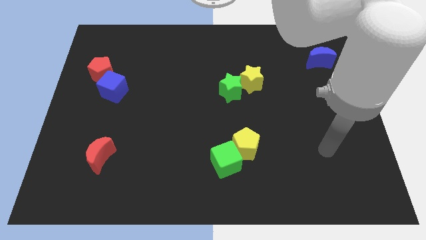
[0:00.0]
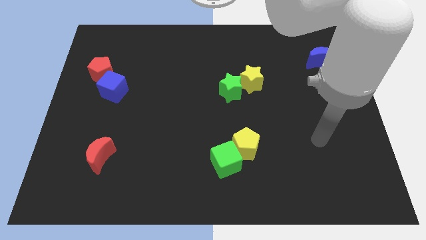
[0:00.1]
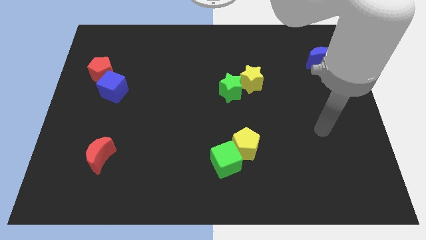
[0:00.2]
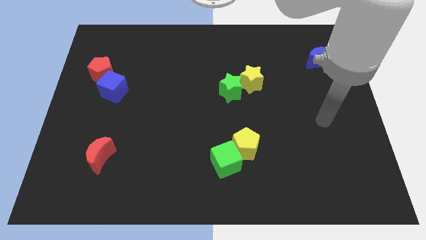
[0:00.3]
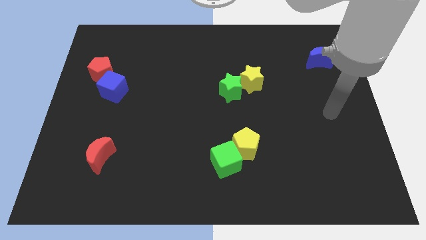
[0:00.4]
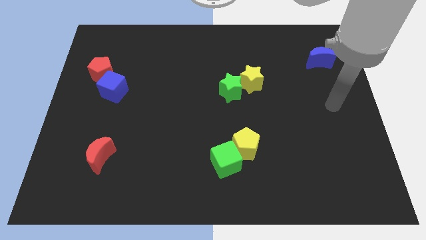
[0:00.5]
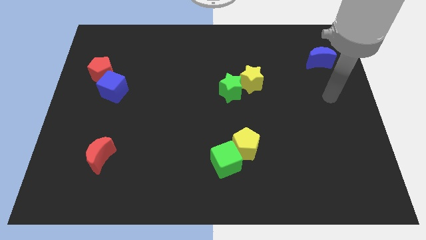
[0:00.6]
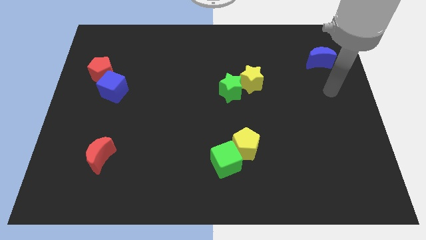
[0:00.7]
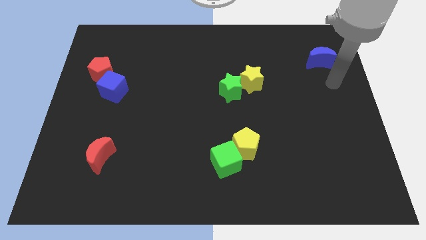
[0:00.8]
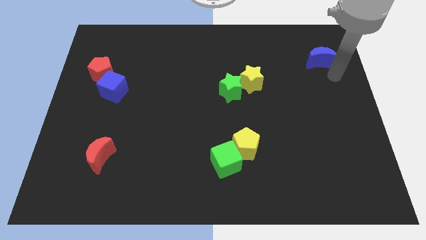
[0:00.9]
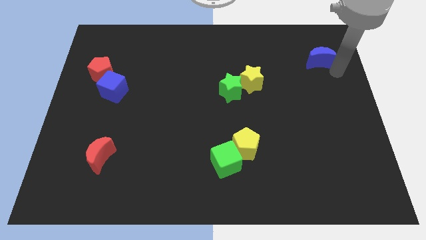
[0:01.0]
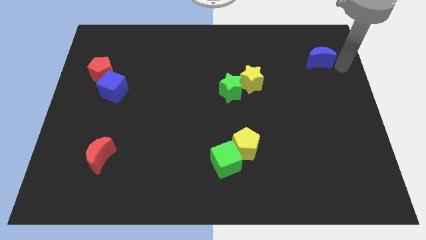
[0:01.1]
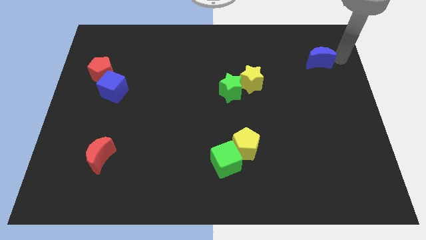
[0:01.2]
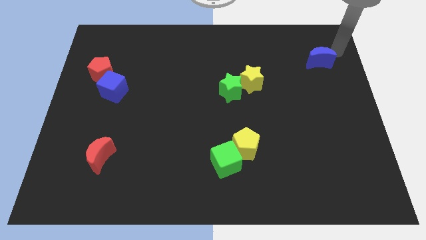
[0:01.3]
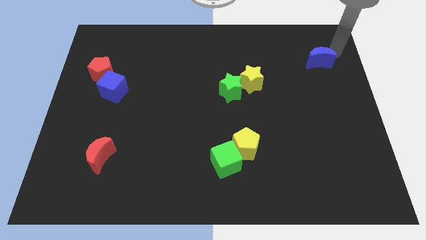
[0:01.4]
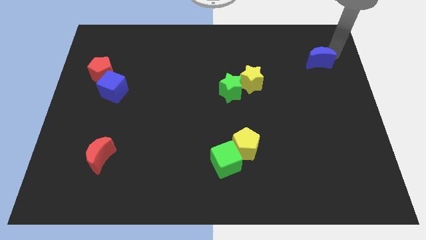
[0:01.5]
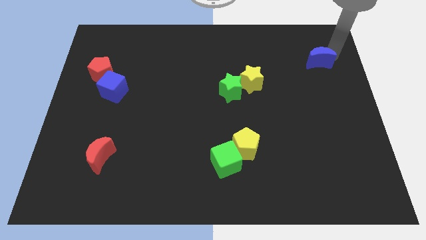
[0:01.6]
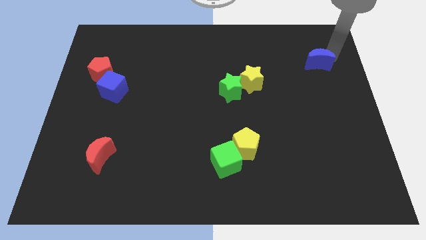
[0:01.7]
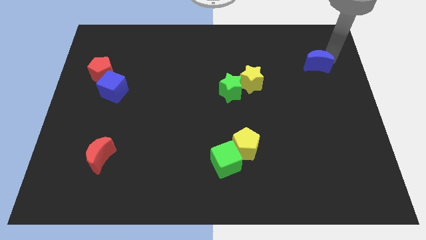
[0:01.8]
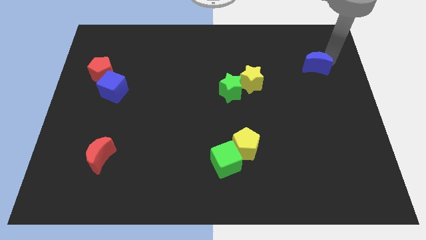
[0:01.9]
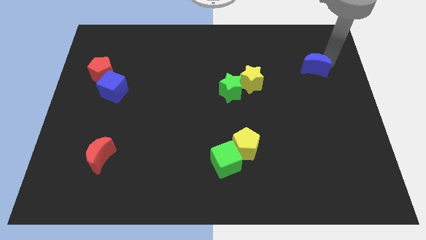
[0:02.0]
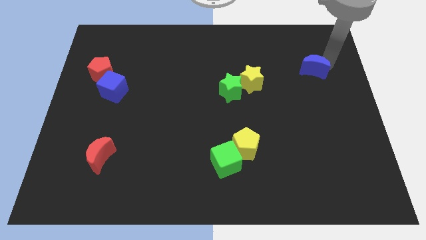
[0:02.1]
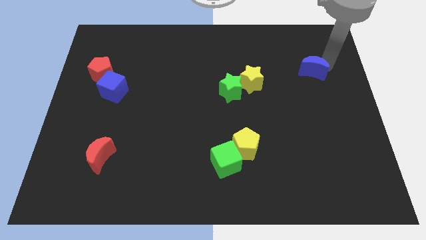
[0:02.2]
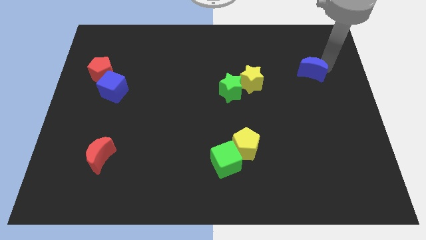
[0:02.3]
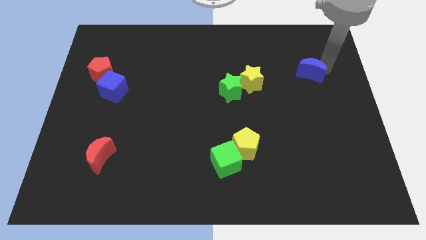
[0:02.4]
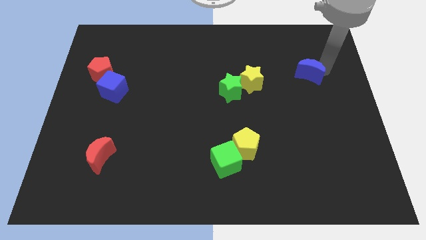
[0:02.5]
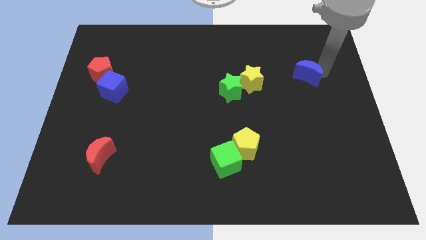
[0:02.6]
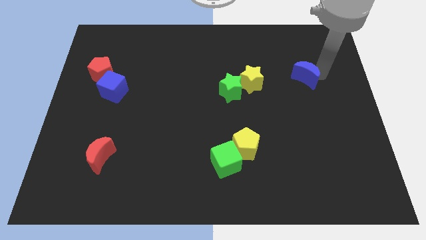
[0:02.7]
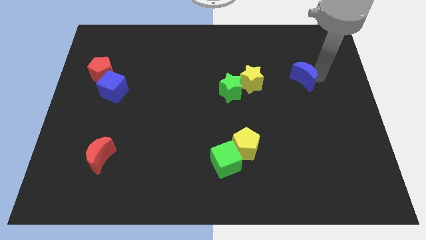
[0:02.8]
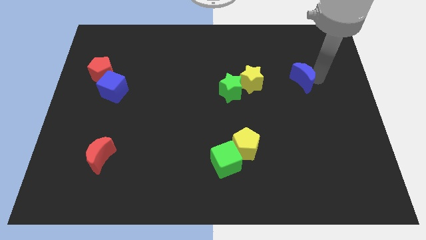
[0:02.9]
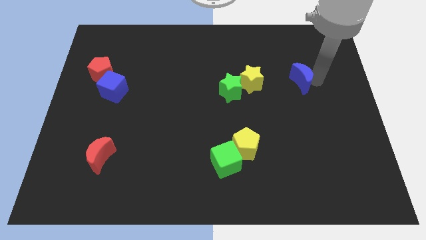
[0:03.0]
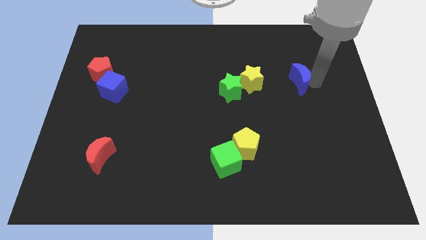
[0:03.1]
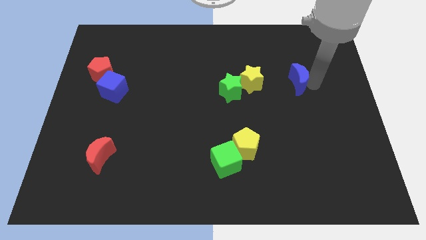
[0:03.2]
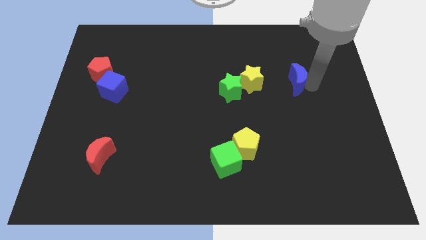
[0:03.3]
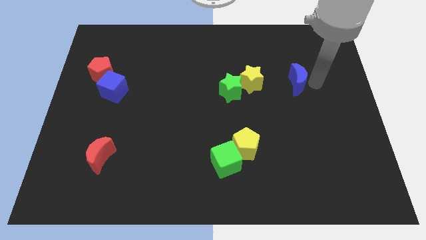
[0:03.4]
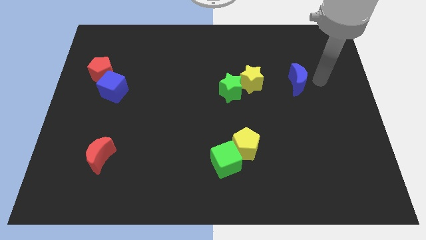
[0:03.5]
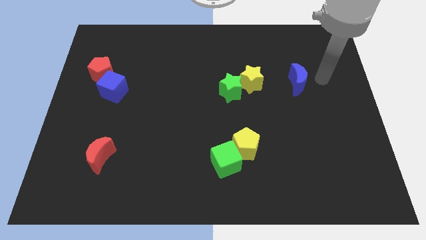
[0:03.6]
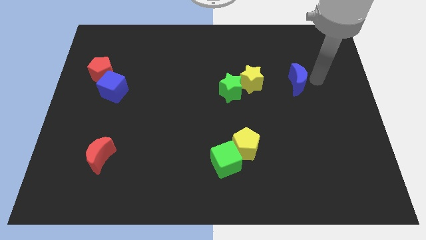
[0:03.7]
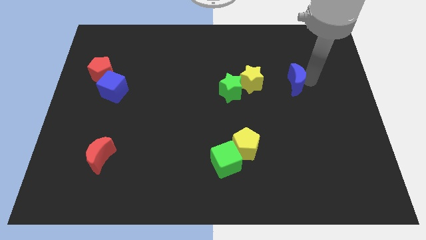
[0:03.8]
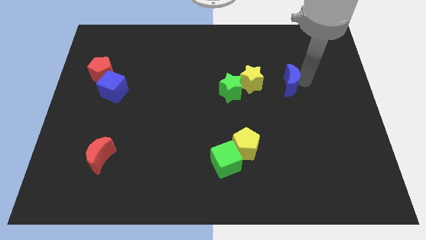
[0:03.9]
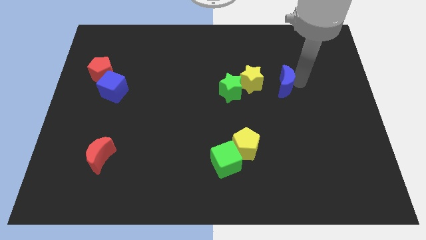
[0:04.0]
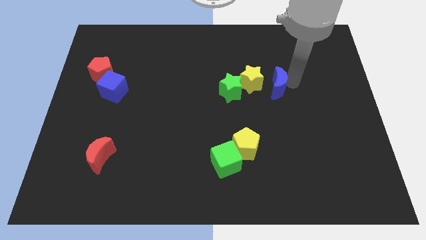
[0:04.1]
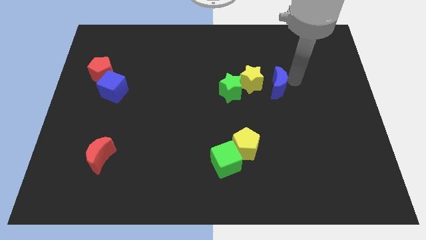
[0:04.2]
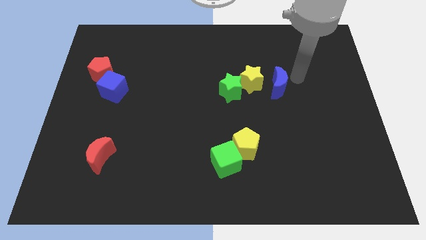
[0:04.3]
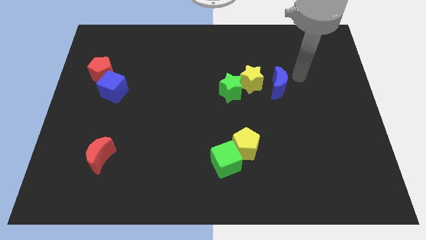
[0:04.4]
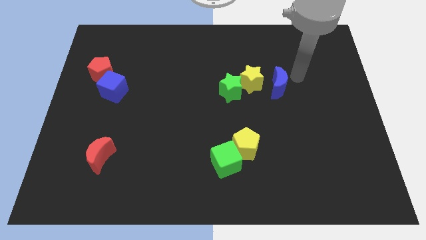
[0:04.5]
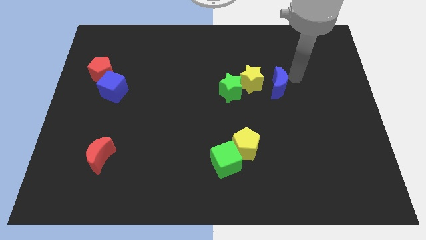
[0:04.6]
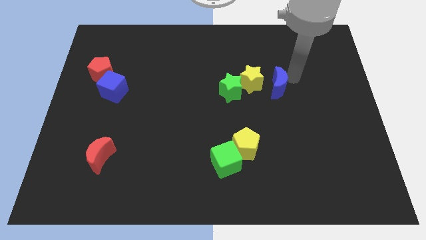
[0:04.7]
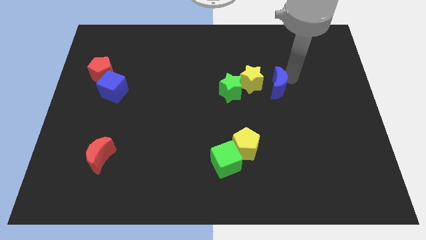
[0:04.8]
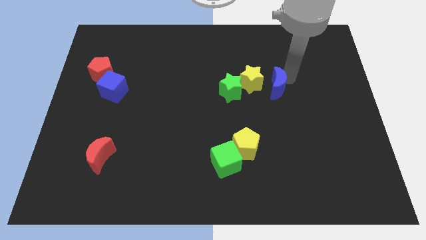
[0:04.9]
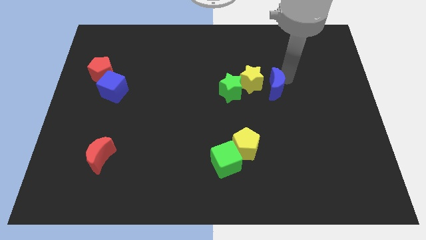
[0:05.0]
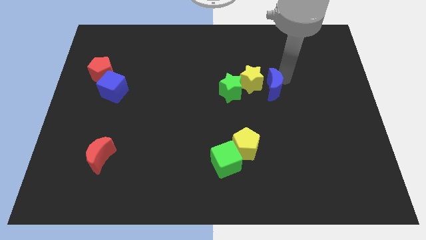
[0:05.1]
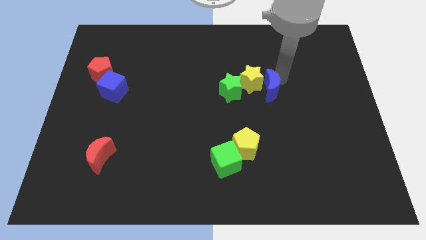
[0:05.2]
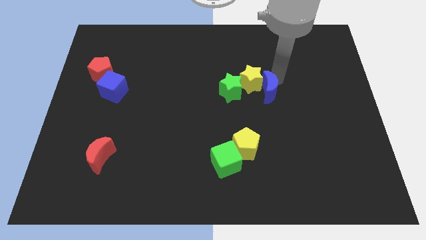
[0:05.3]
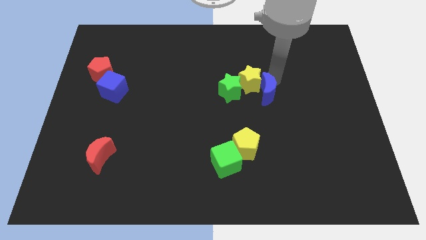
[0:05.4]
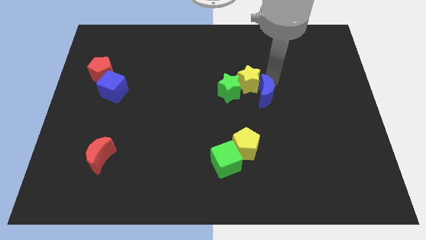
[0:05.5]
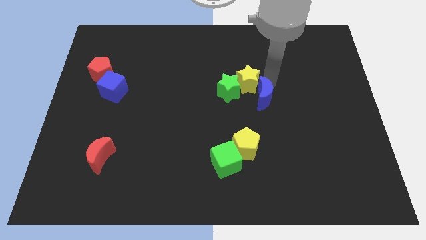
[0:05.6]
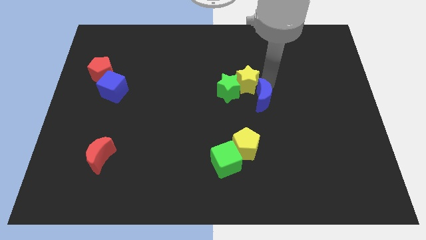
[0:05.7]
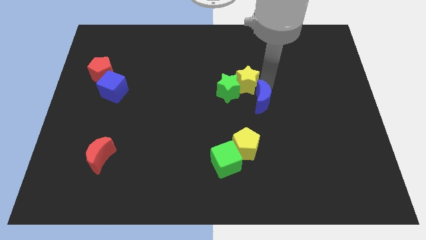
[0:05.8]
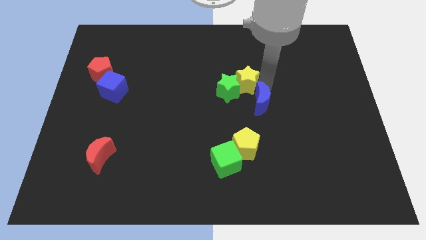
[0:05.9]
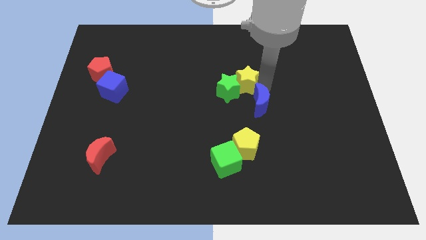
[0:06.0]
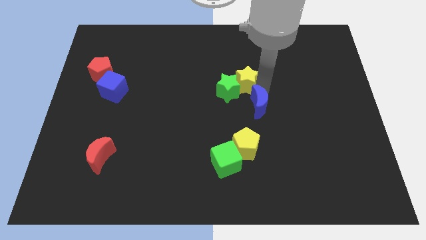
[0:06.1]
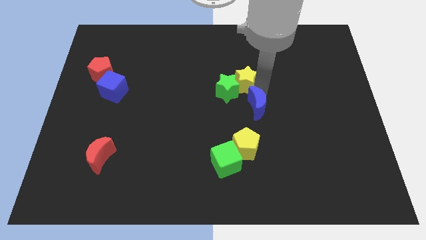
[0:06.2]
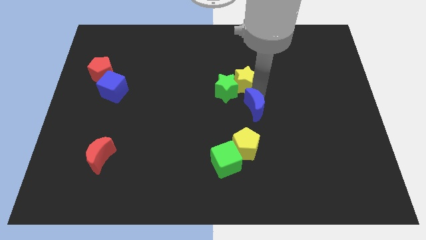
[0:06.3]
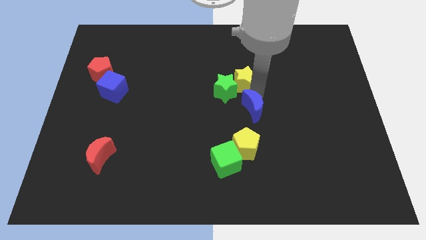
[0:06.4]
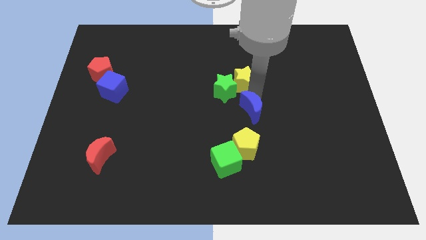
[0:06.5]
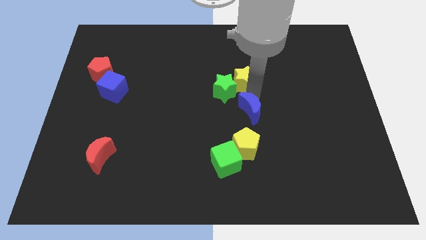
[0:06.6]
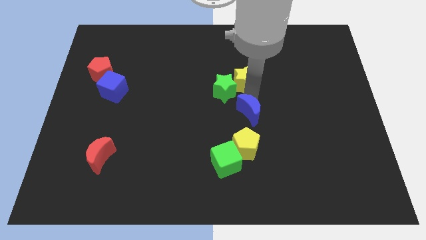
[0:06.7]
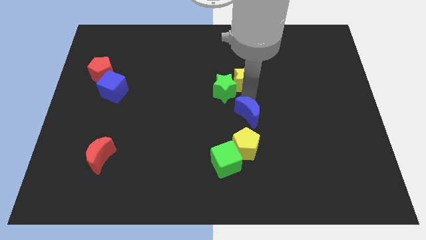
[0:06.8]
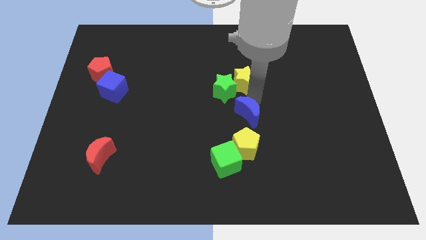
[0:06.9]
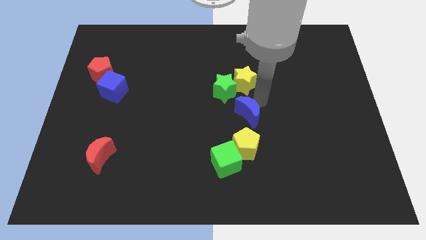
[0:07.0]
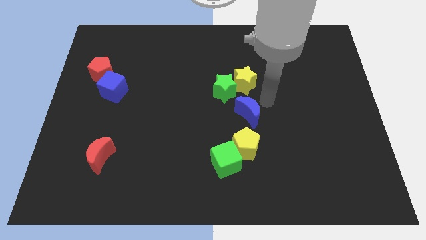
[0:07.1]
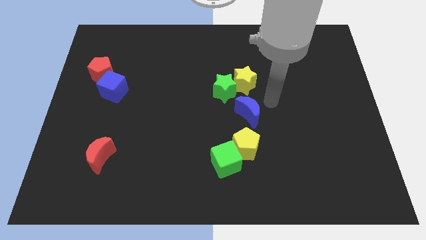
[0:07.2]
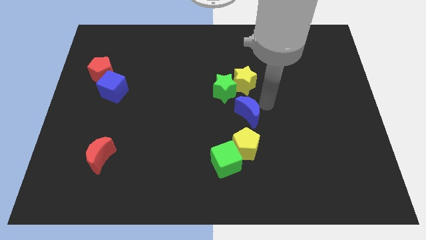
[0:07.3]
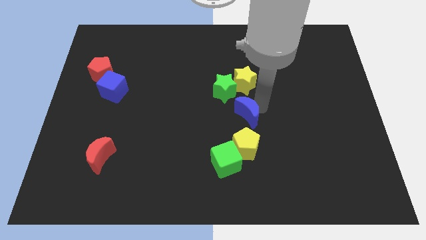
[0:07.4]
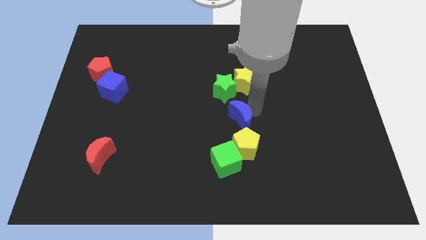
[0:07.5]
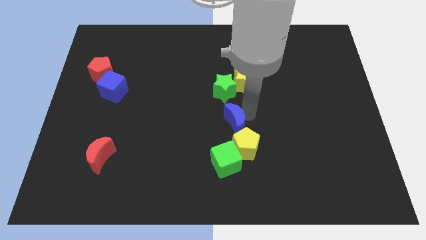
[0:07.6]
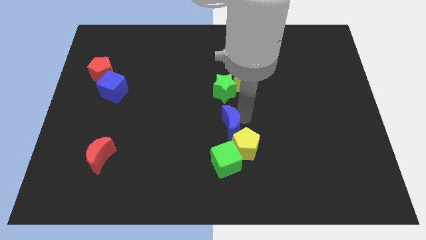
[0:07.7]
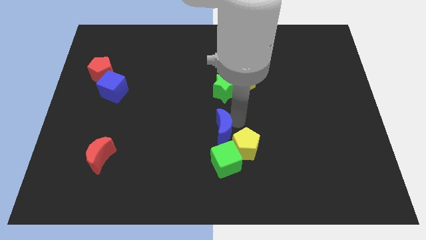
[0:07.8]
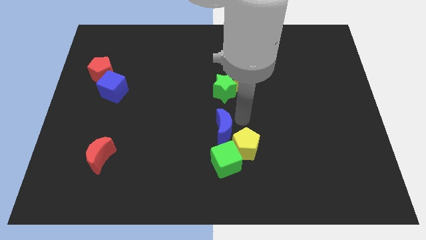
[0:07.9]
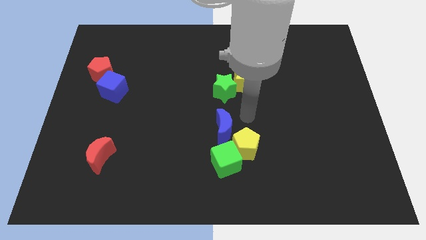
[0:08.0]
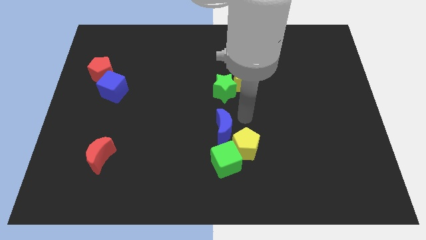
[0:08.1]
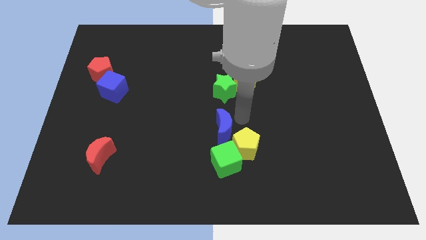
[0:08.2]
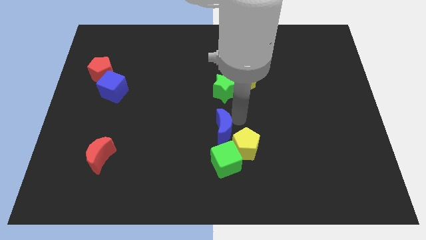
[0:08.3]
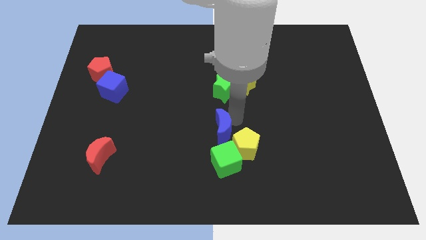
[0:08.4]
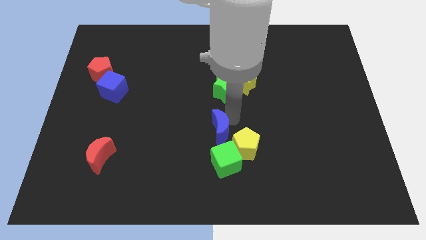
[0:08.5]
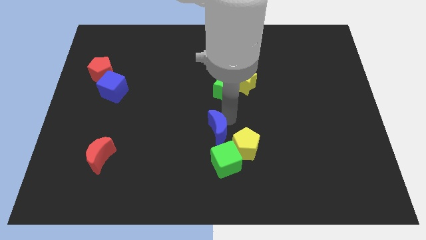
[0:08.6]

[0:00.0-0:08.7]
push the blue moon to the top left of the green cube
